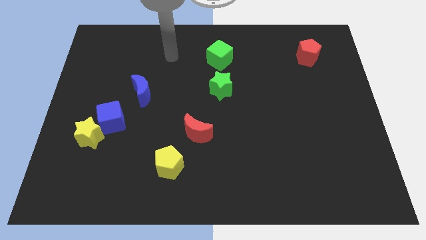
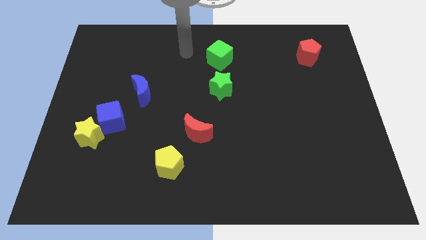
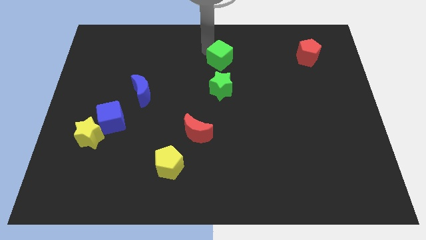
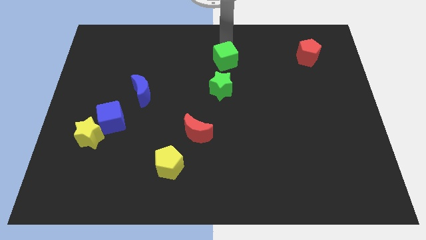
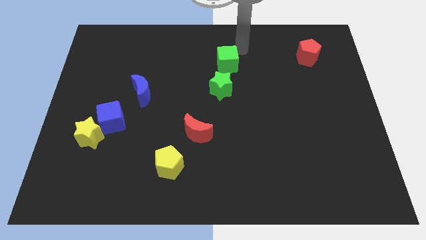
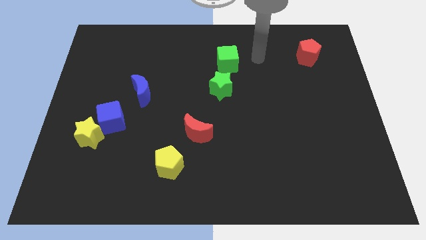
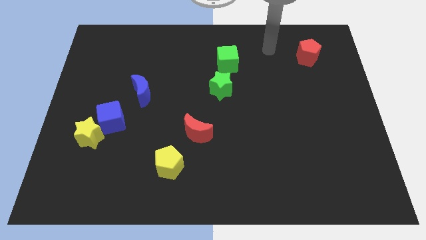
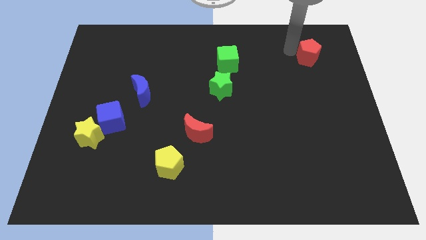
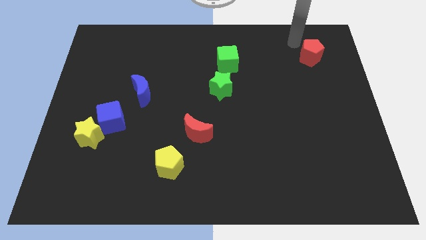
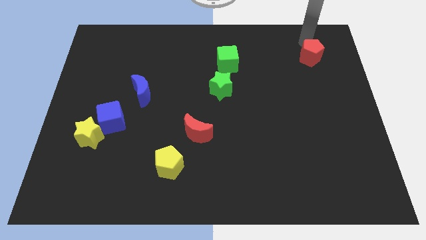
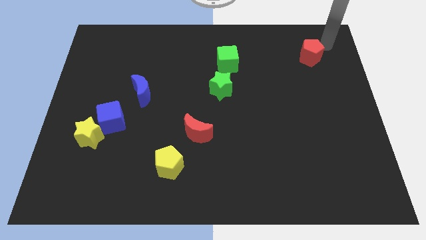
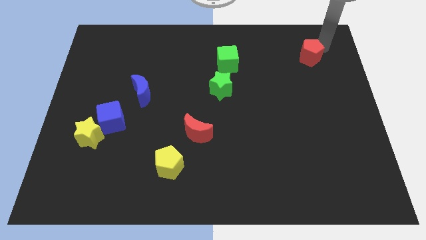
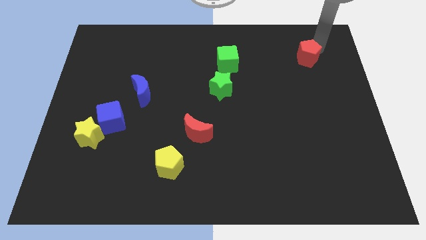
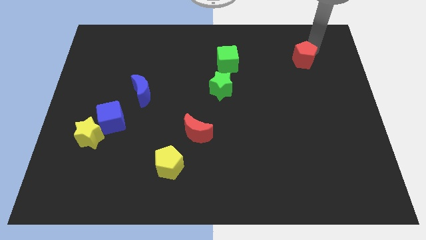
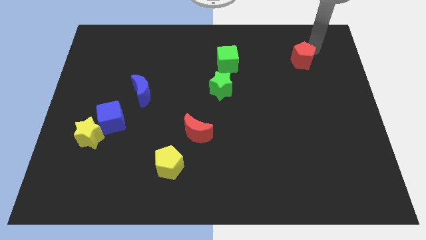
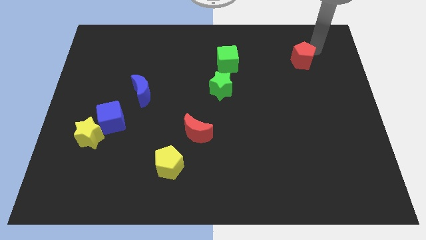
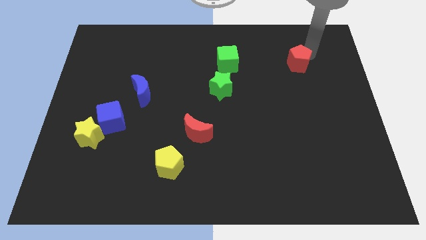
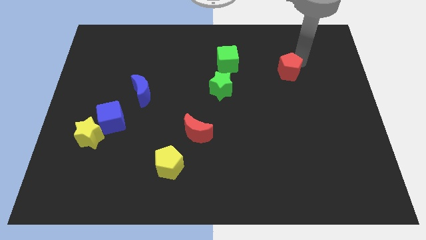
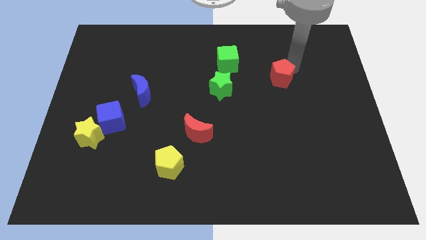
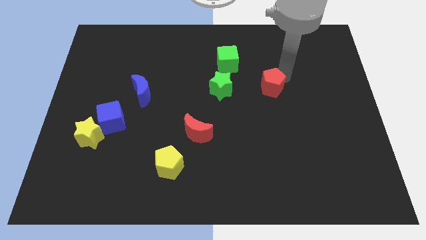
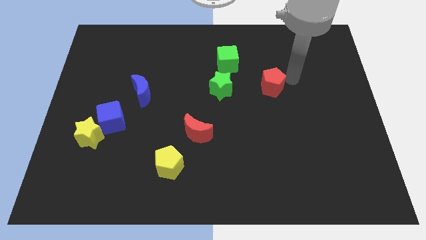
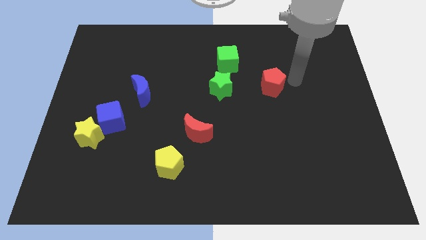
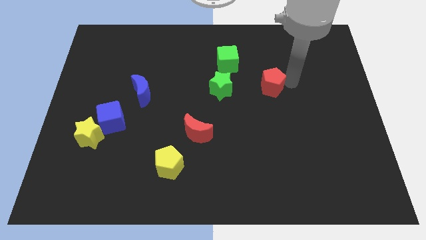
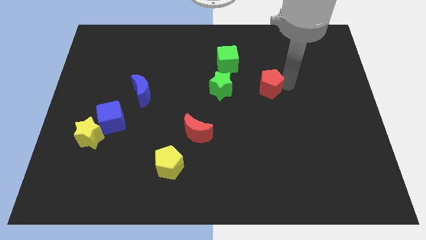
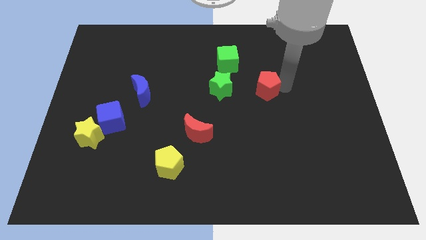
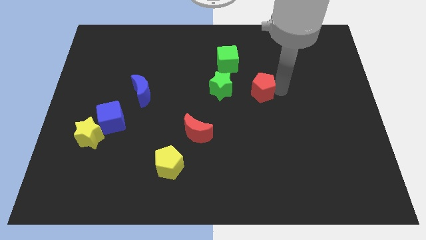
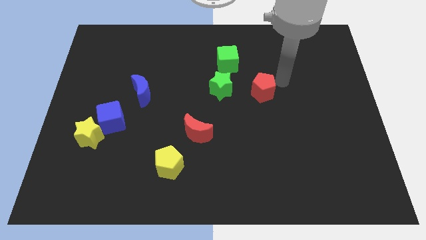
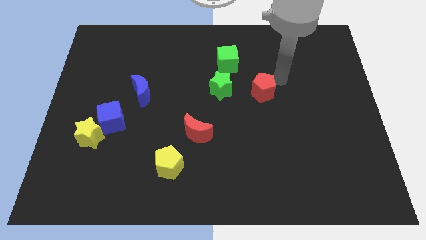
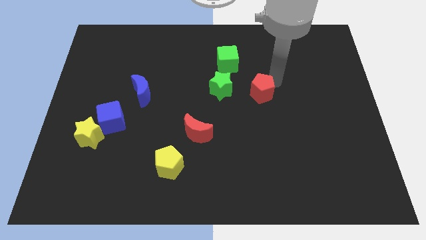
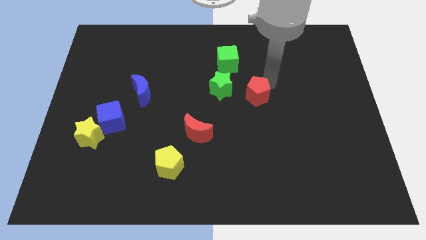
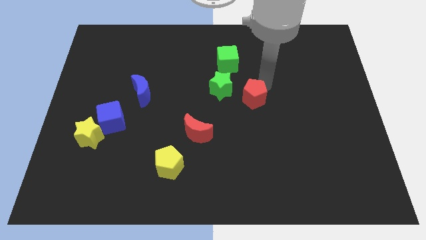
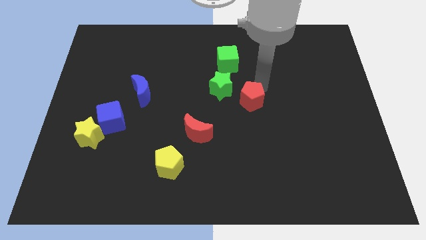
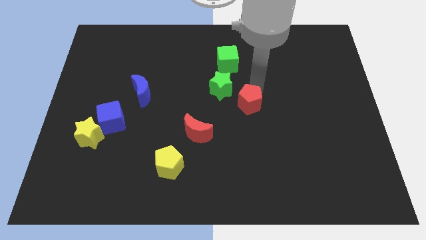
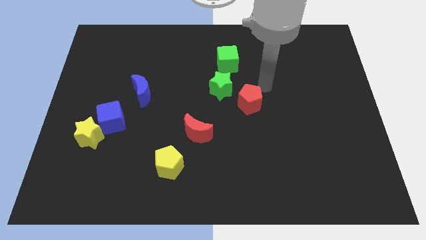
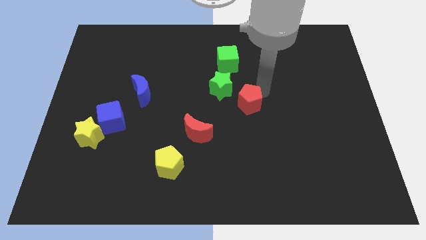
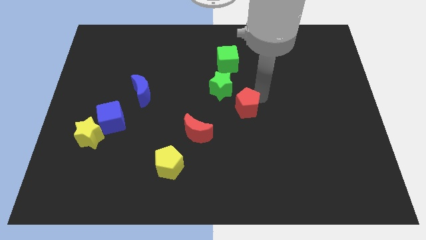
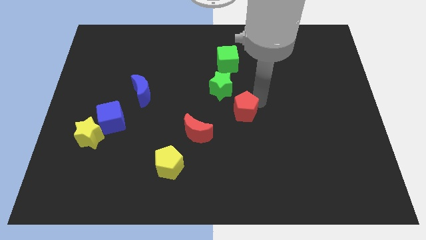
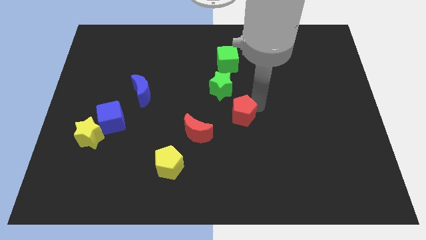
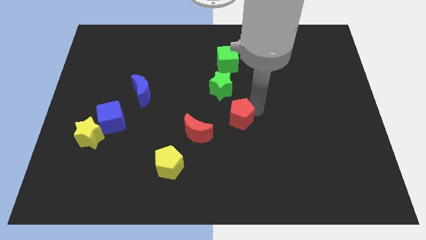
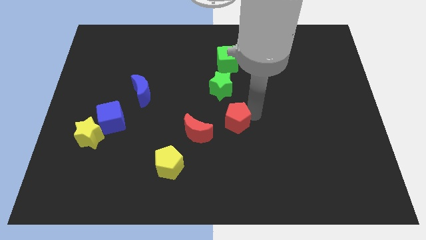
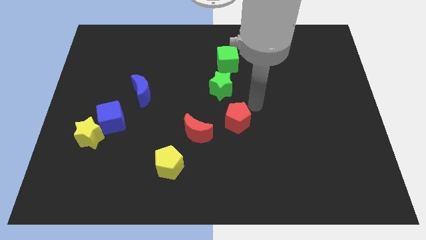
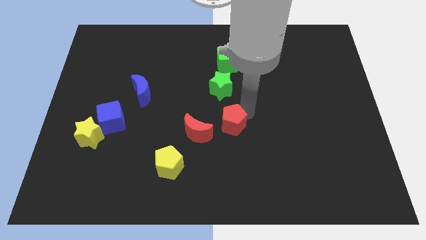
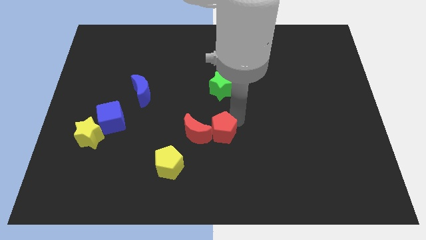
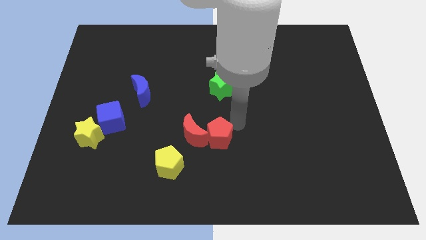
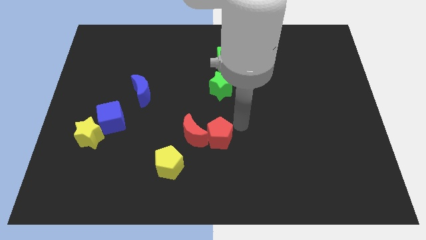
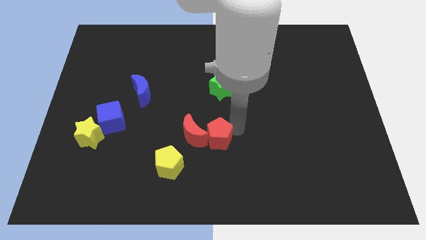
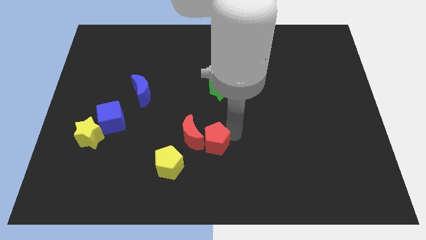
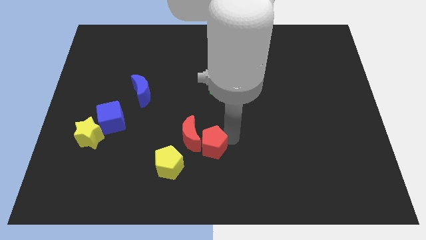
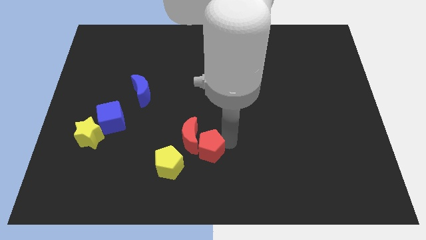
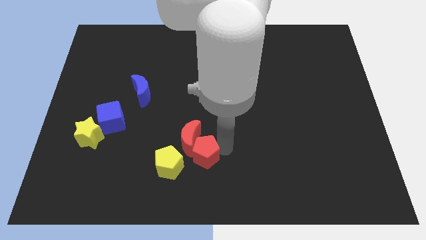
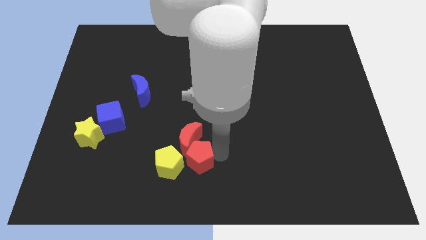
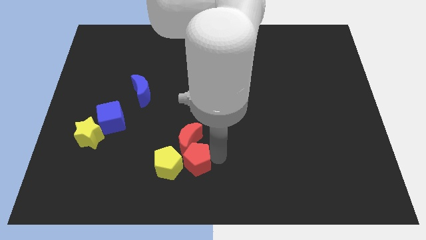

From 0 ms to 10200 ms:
move the red pentagon to the yellow pentagon

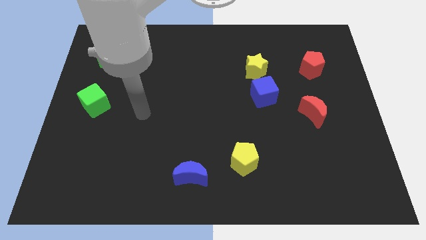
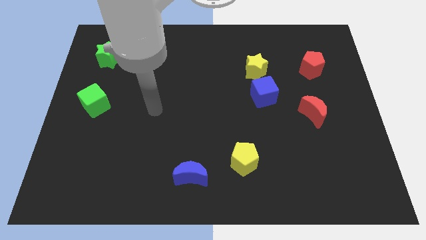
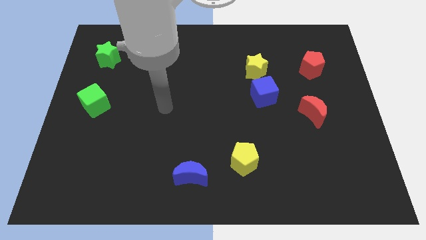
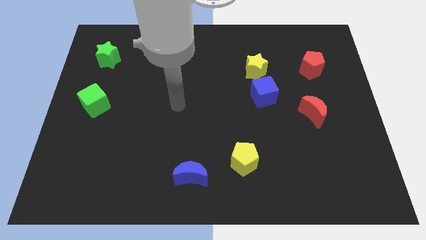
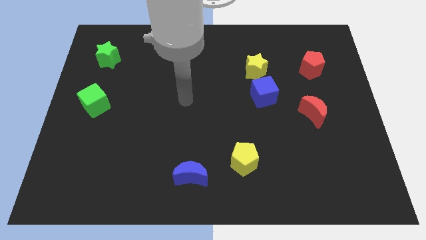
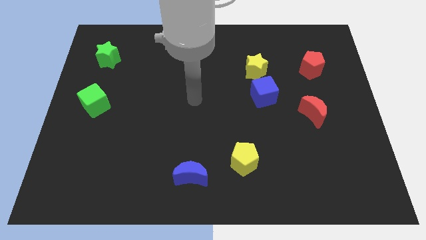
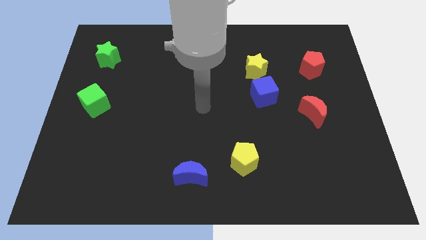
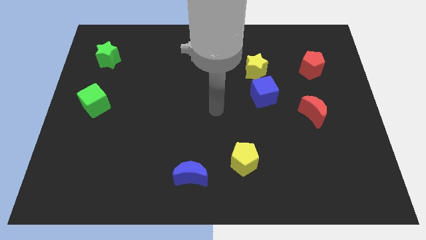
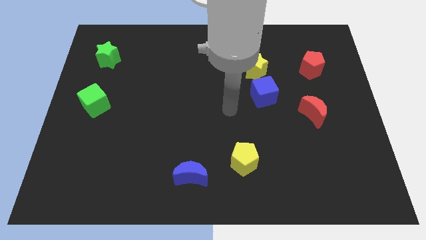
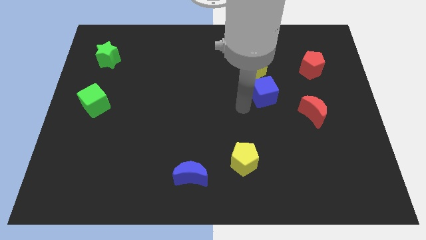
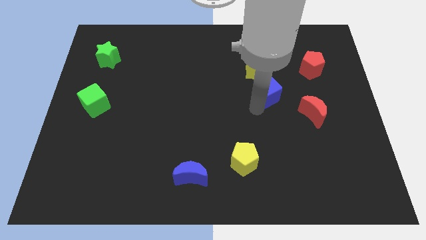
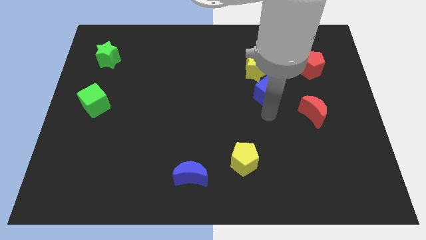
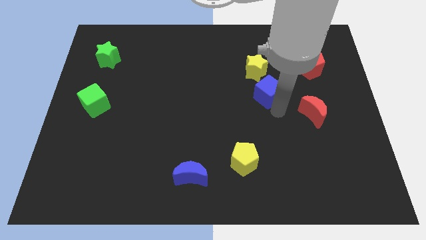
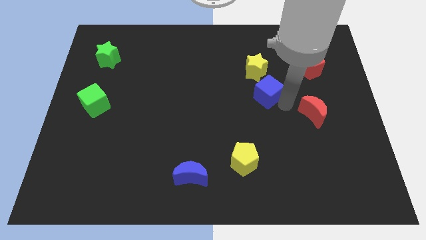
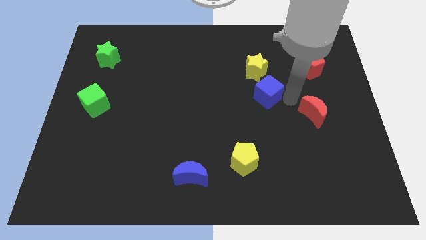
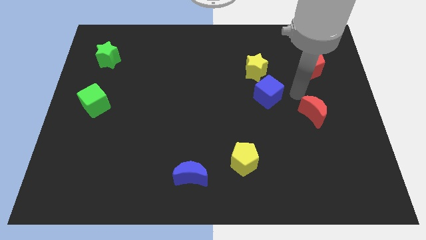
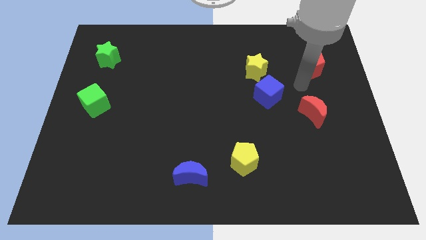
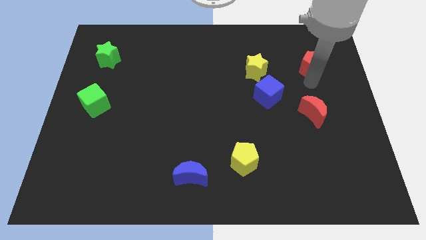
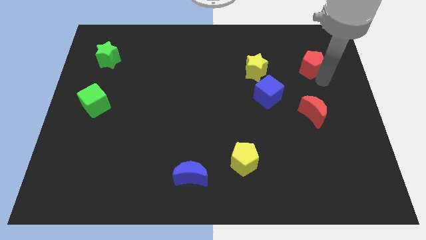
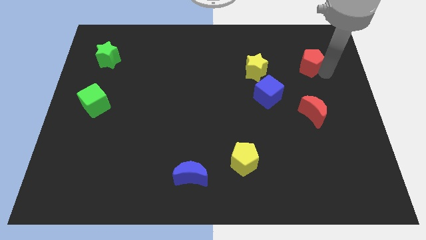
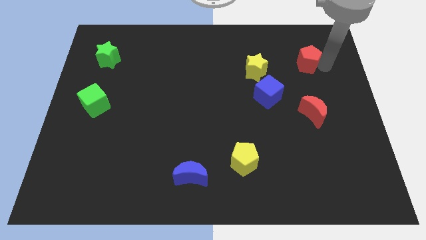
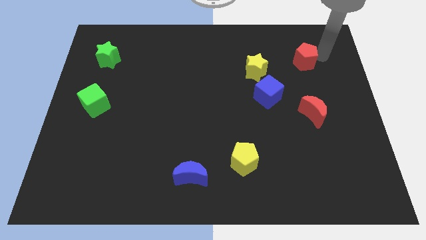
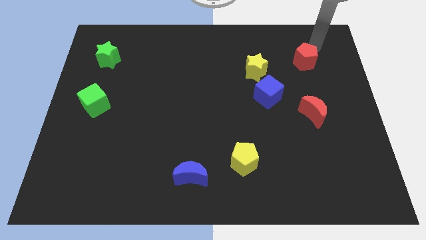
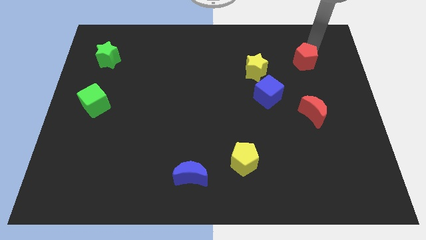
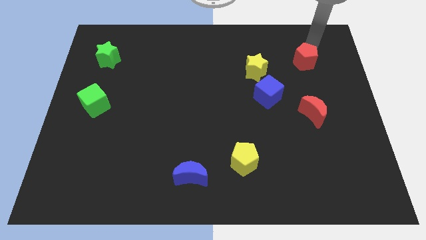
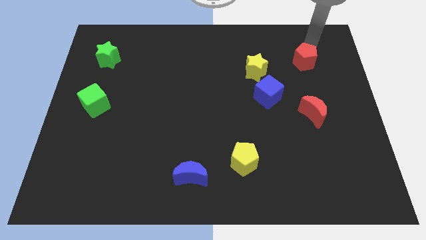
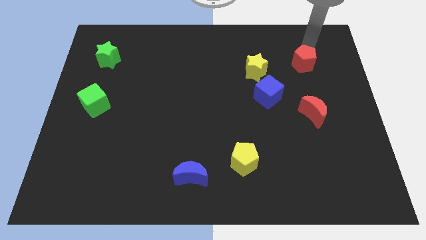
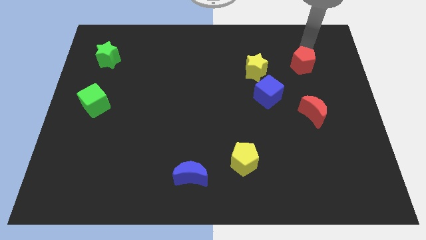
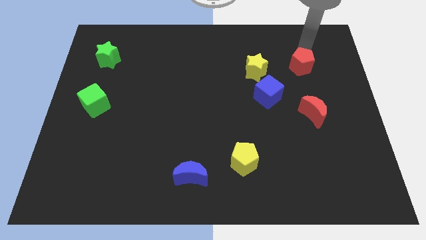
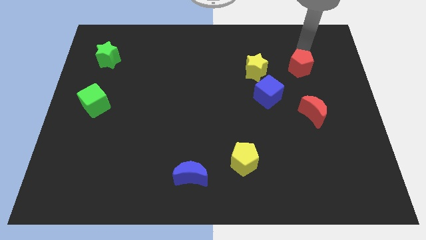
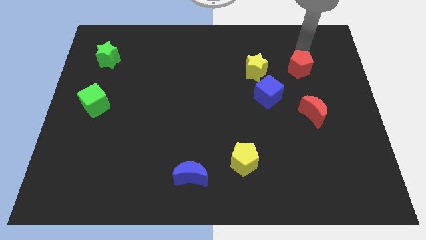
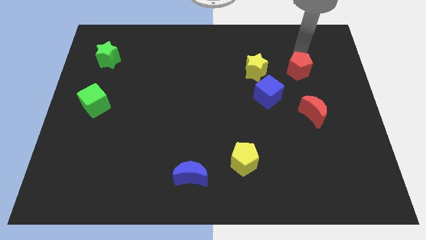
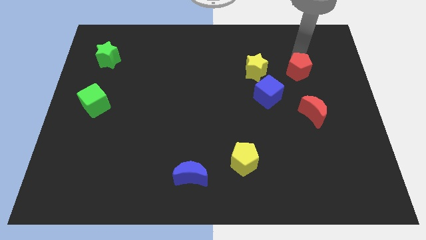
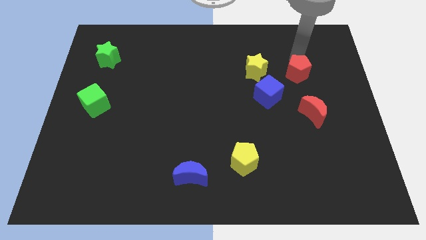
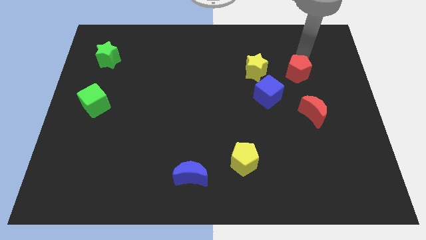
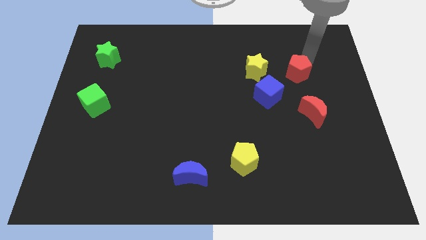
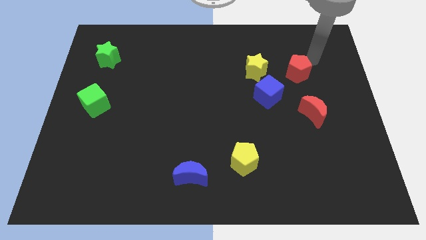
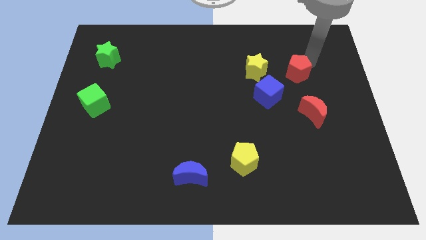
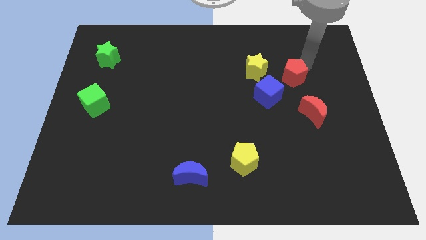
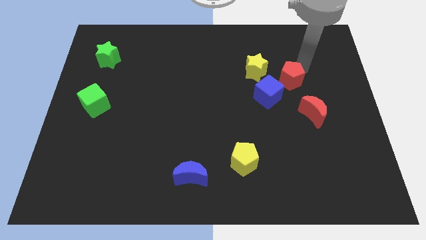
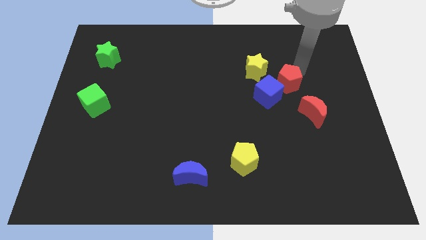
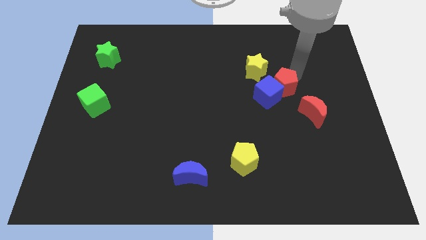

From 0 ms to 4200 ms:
push the red pentagon next to the blue cube
